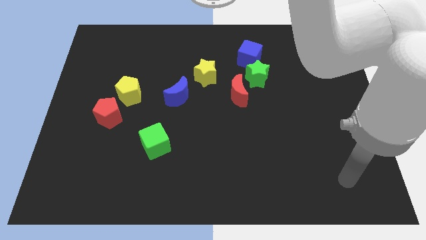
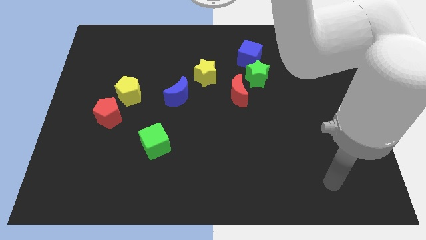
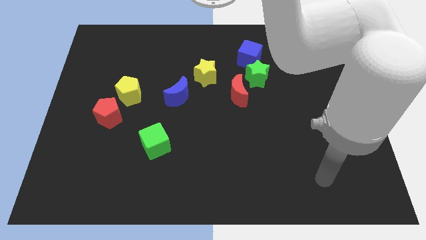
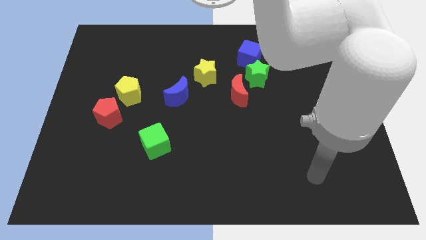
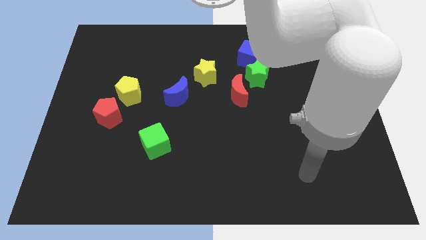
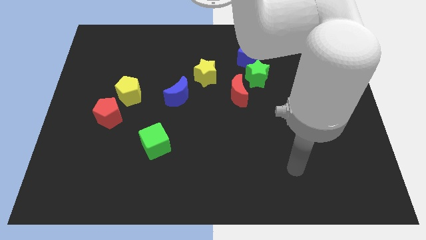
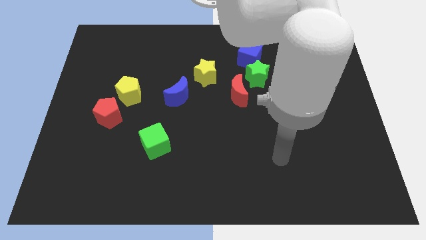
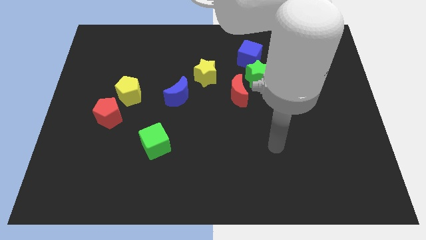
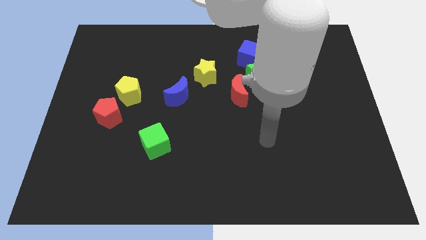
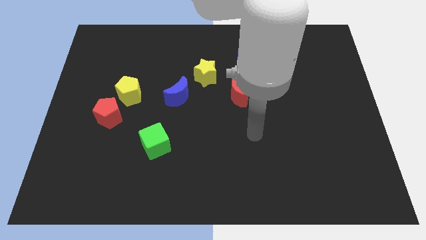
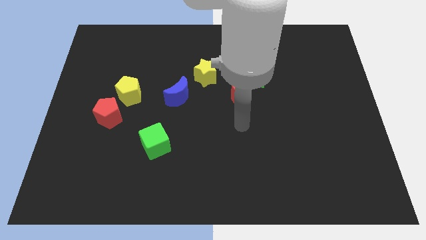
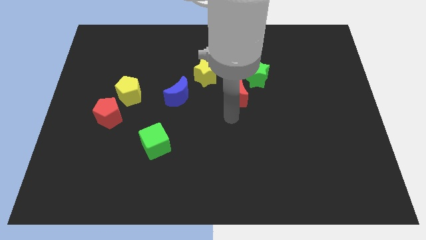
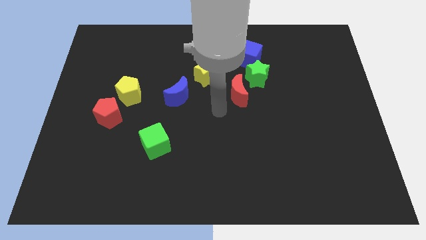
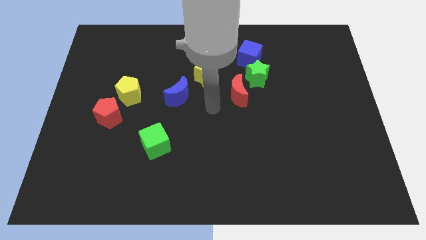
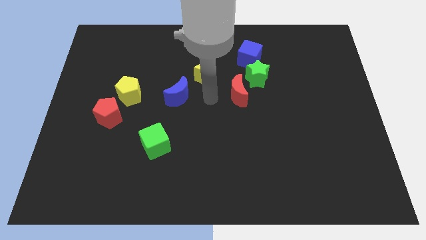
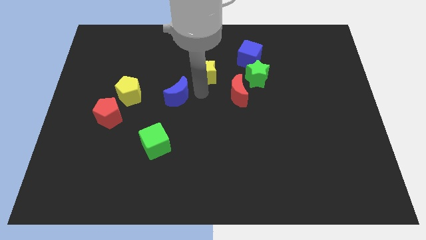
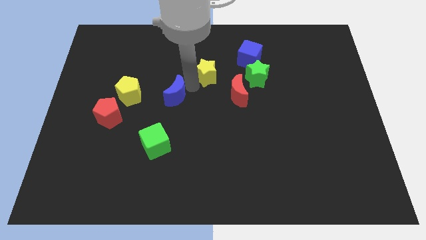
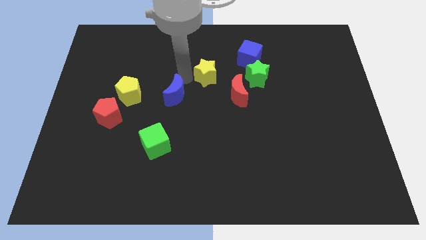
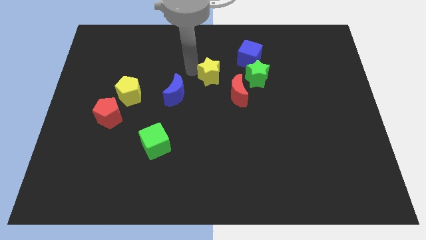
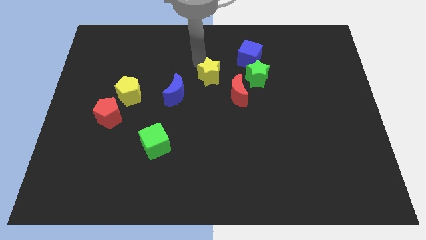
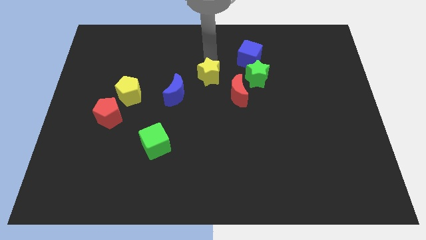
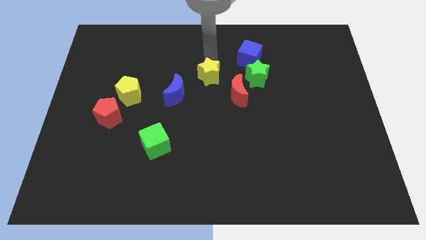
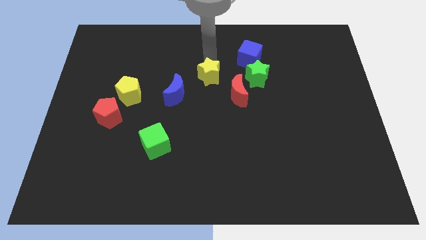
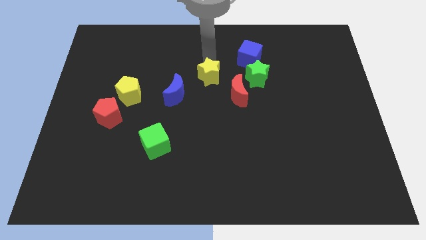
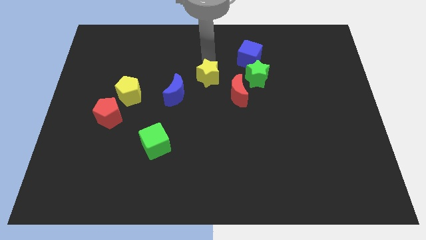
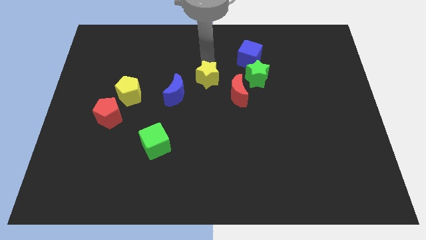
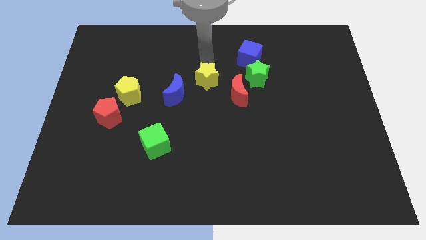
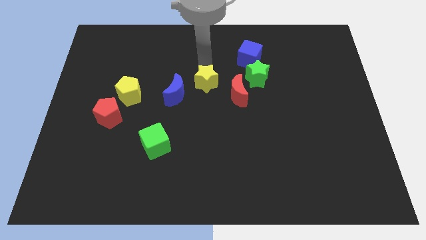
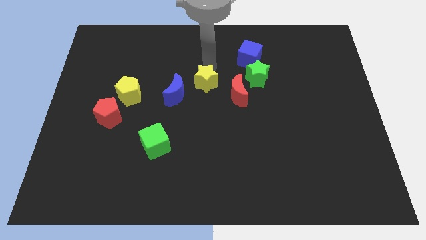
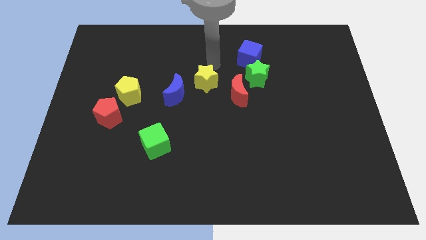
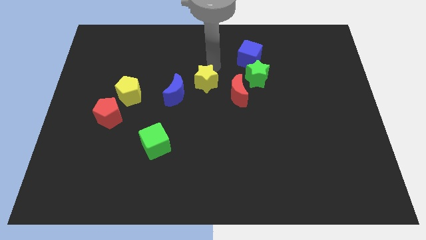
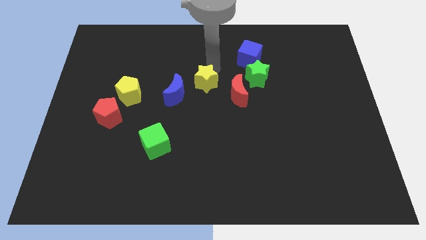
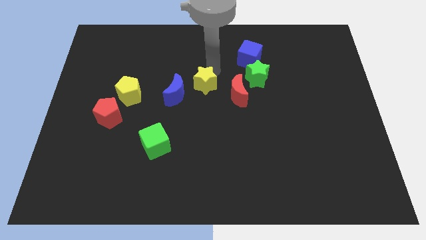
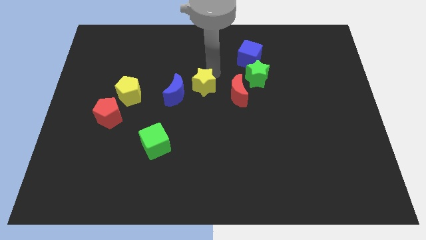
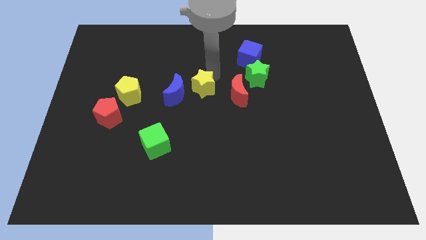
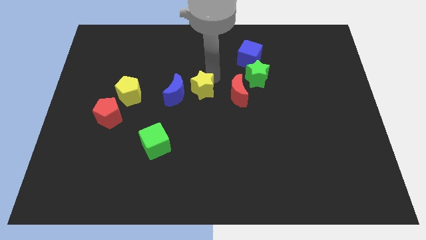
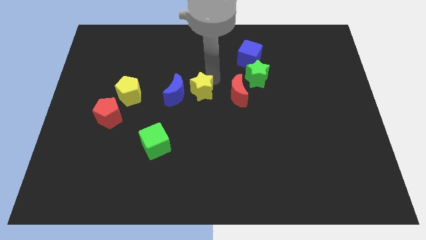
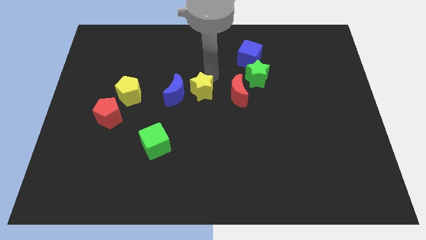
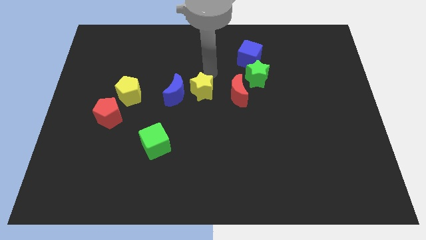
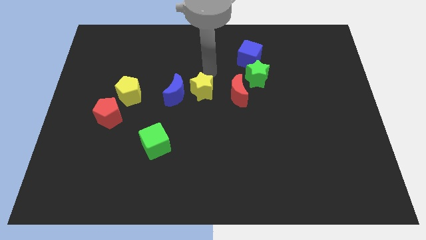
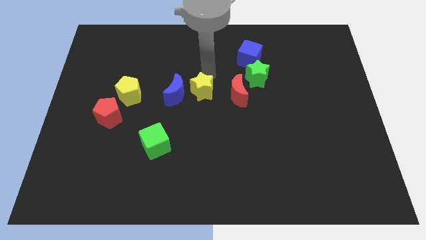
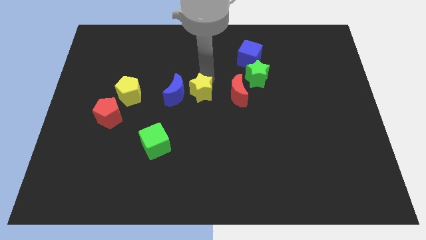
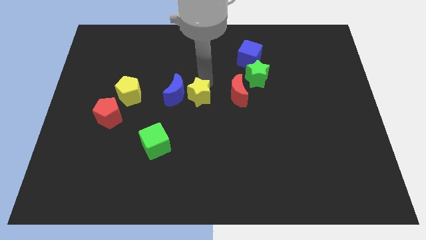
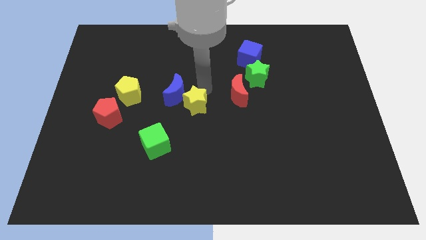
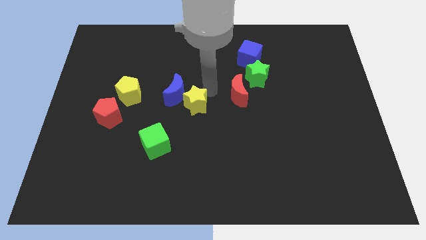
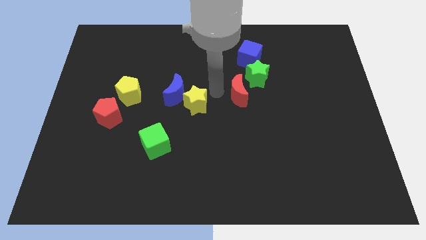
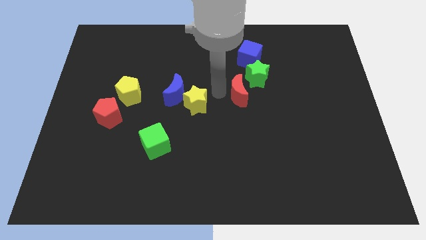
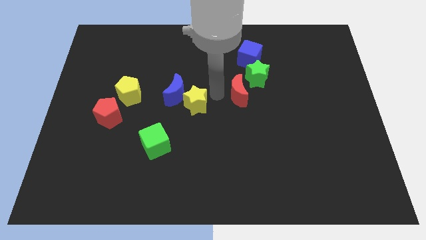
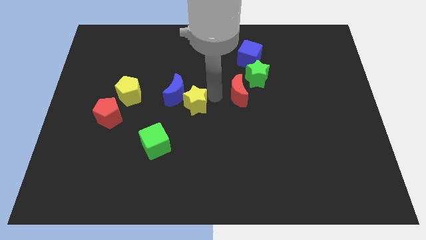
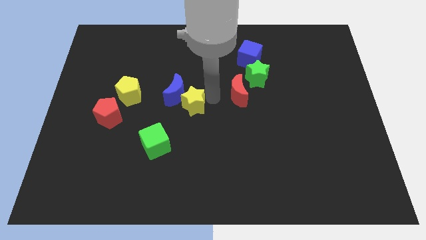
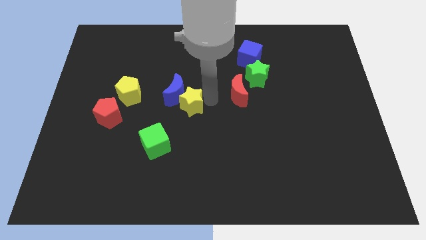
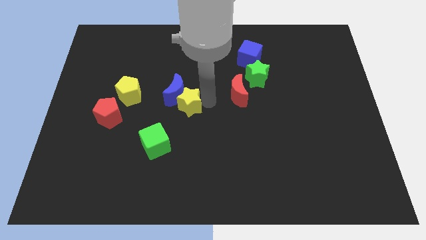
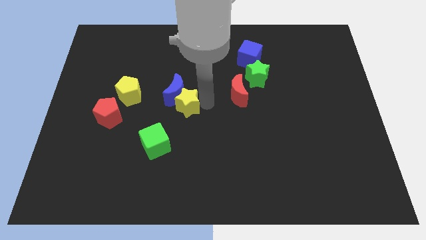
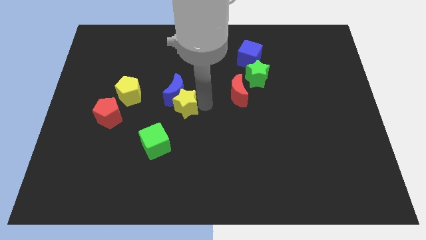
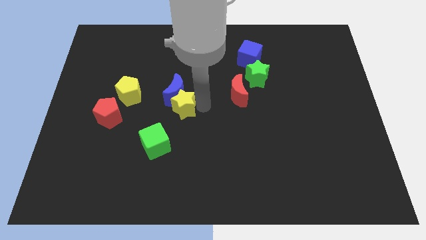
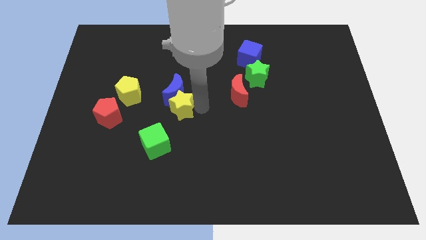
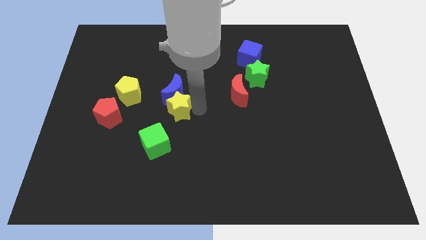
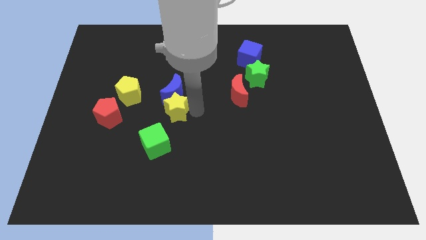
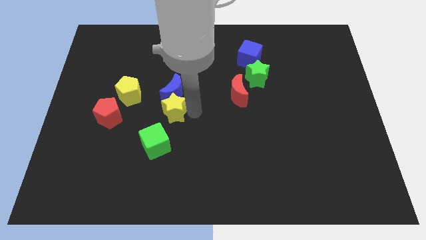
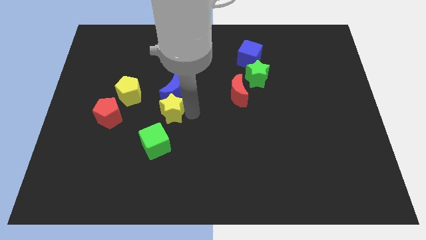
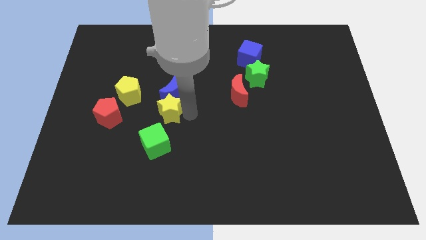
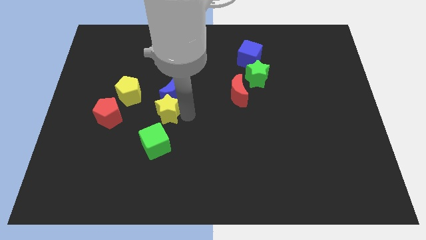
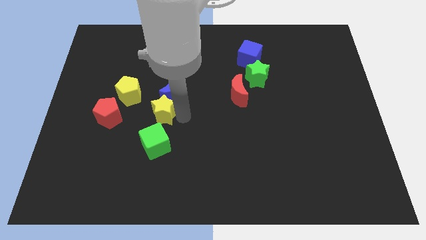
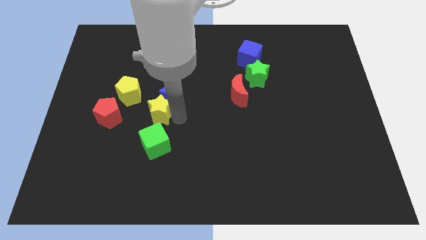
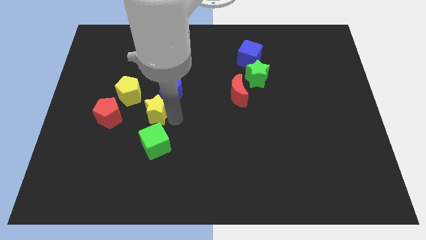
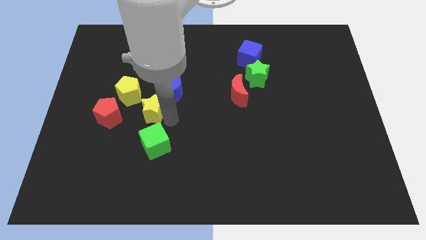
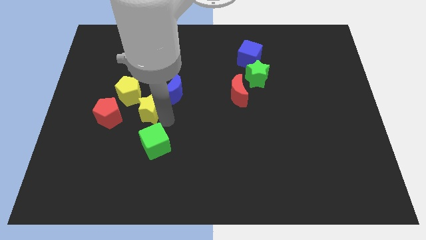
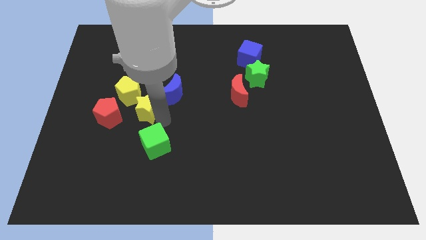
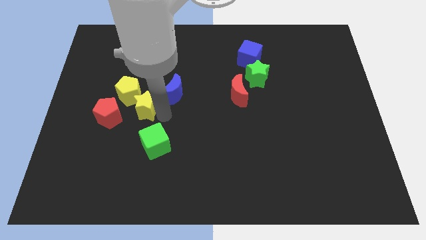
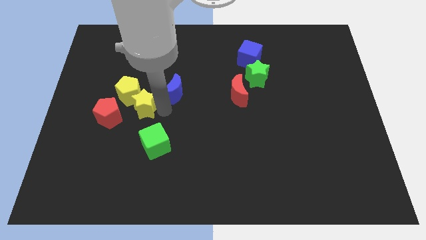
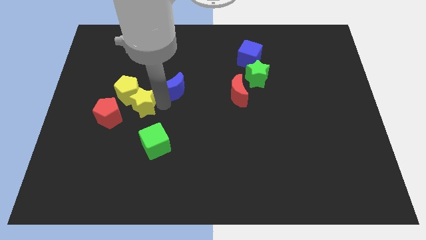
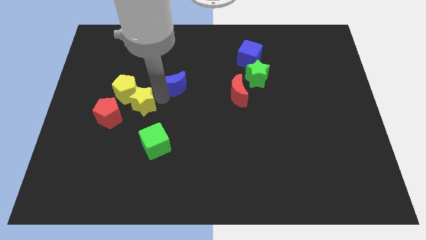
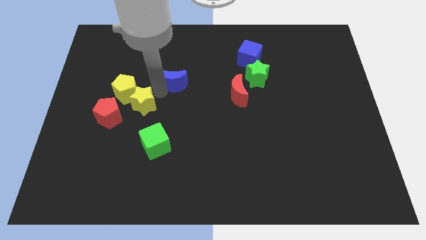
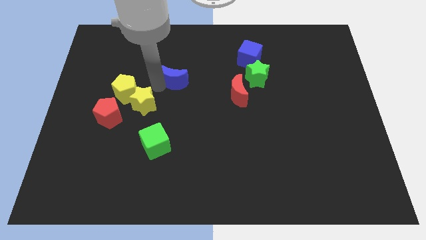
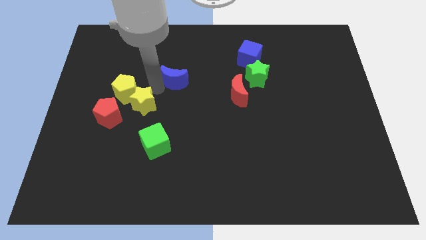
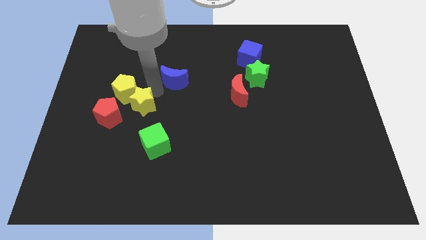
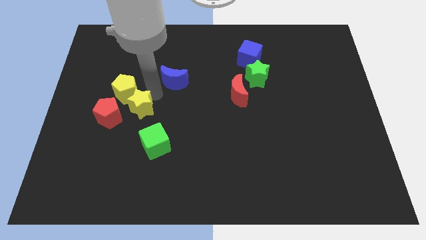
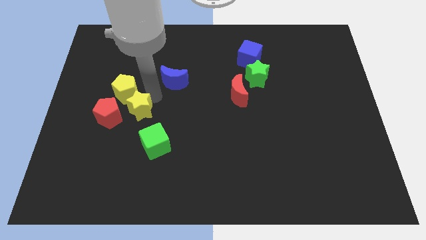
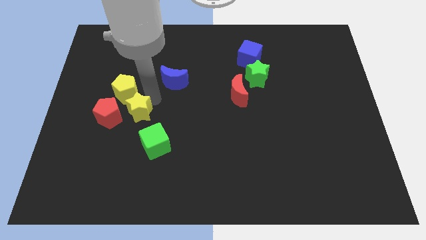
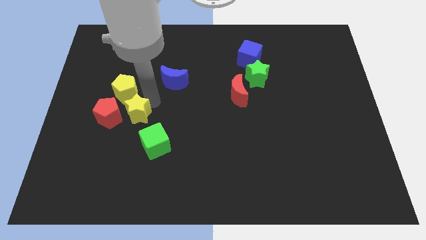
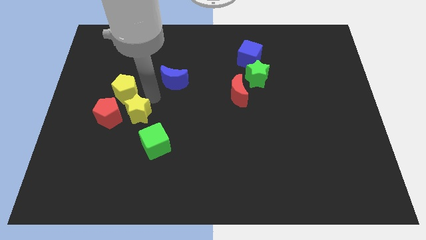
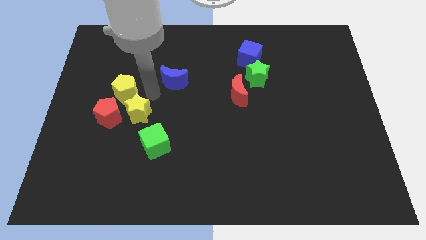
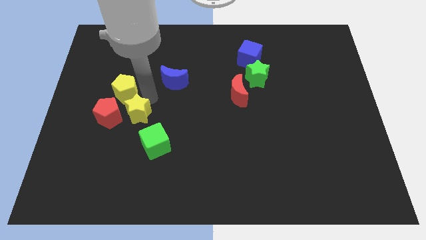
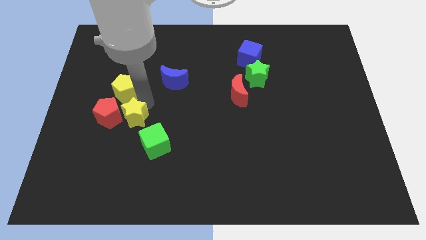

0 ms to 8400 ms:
move the yellow star downwards and left
